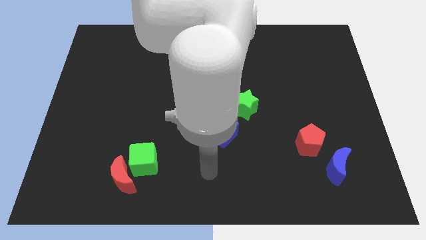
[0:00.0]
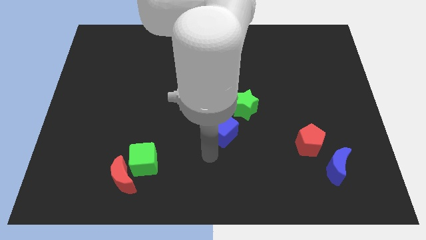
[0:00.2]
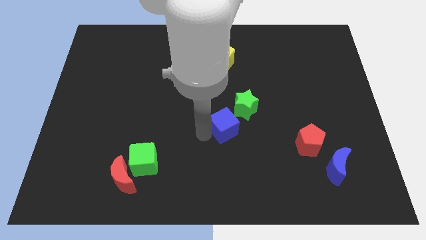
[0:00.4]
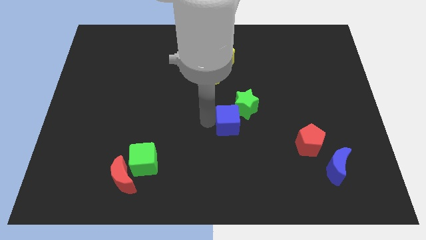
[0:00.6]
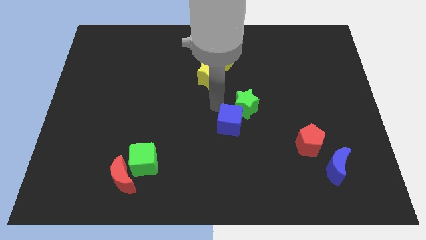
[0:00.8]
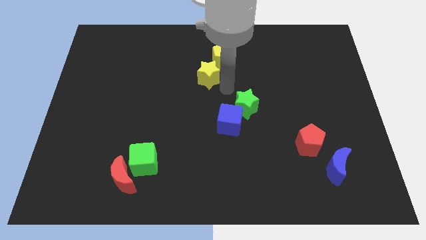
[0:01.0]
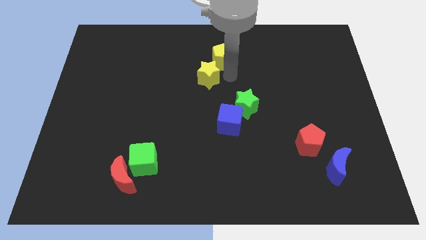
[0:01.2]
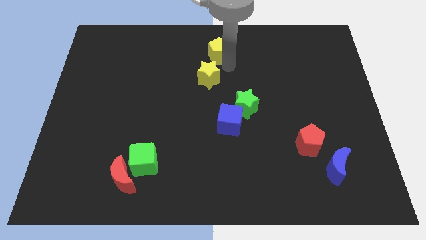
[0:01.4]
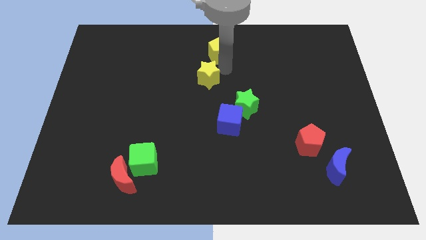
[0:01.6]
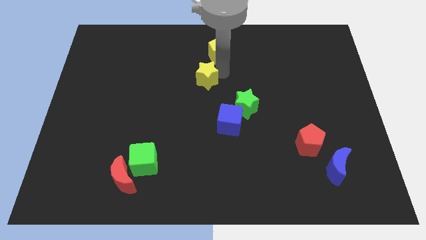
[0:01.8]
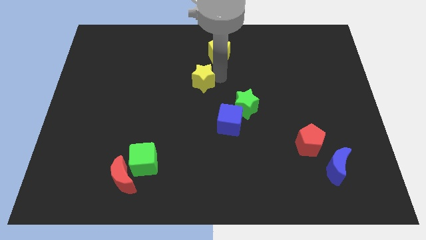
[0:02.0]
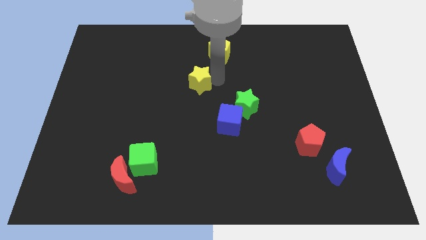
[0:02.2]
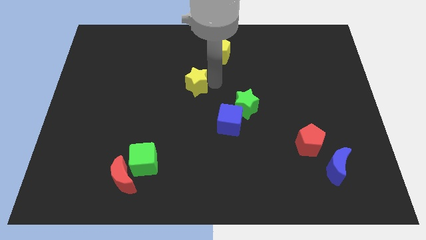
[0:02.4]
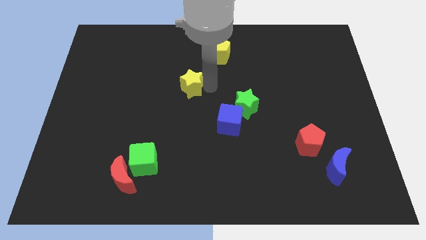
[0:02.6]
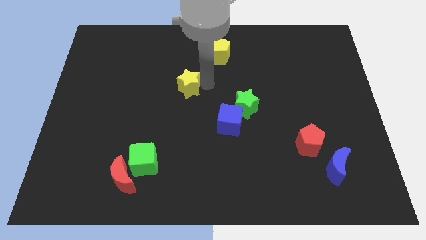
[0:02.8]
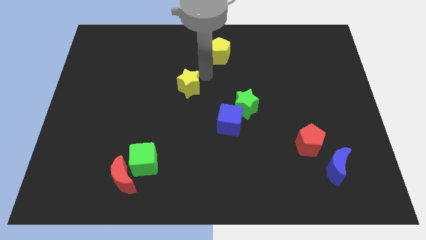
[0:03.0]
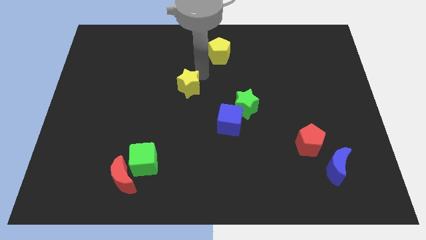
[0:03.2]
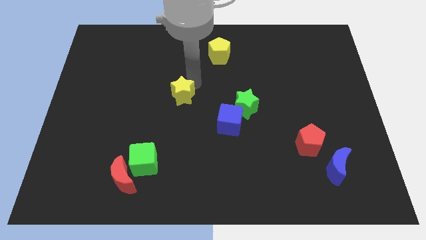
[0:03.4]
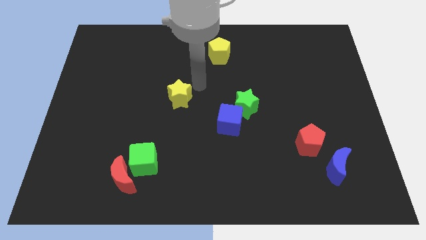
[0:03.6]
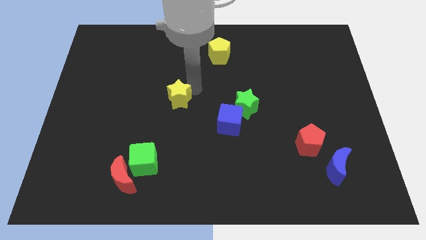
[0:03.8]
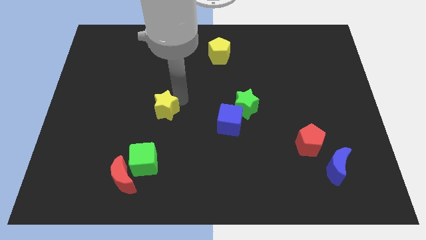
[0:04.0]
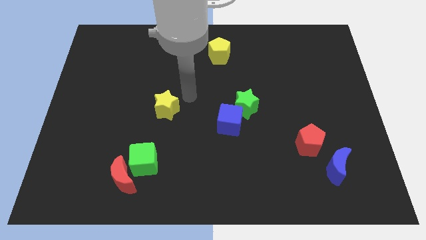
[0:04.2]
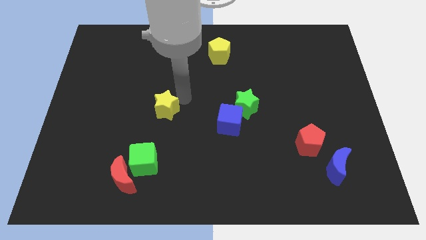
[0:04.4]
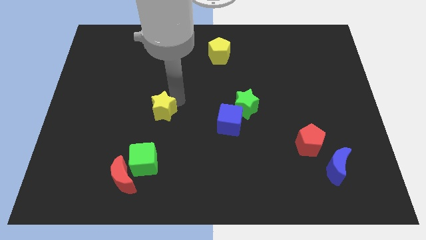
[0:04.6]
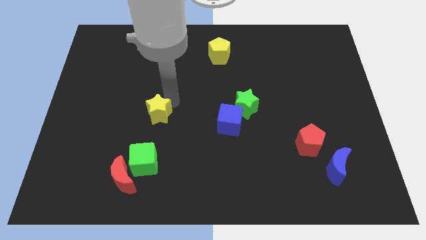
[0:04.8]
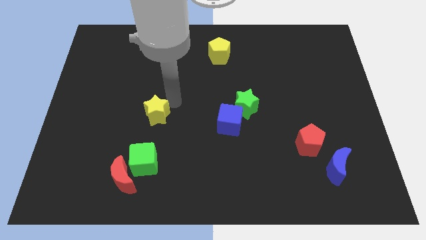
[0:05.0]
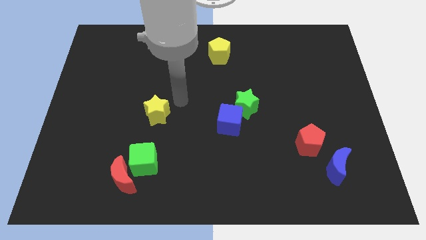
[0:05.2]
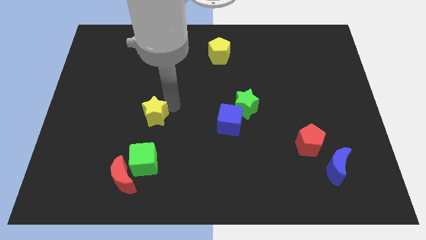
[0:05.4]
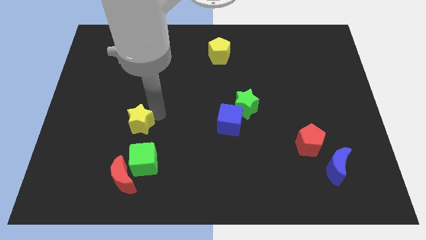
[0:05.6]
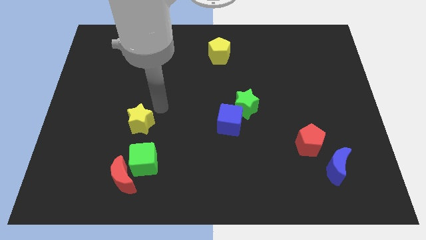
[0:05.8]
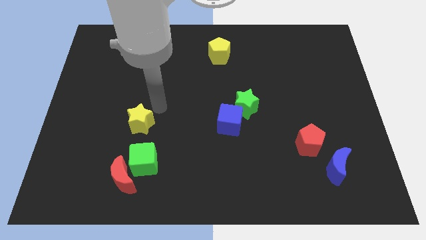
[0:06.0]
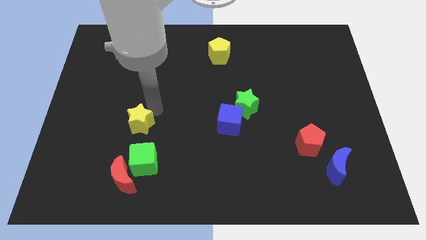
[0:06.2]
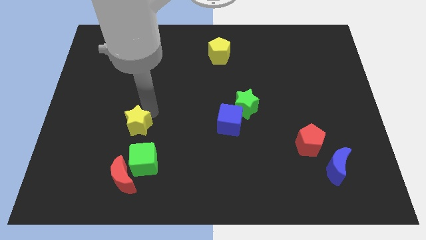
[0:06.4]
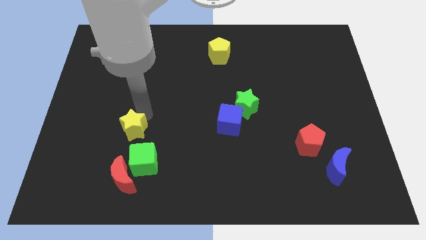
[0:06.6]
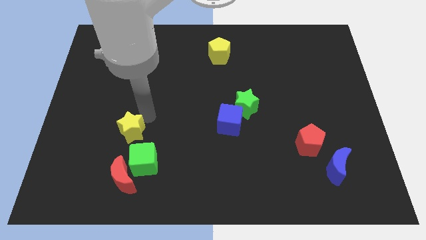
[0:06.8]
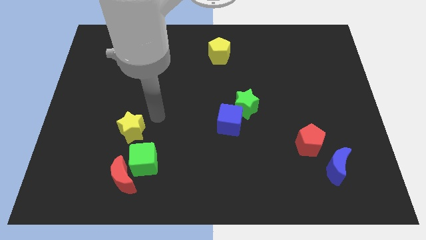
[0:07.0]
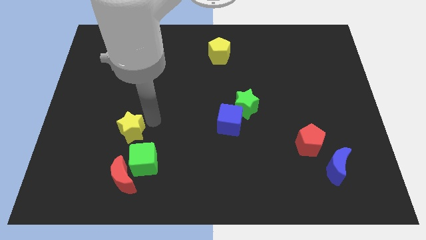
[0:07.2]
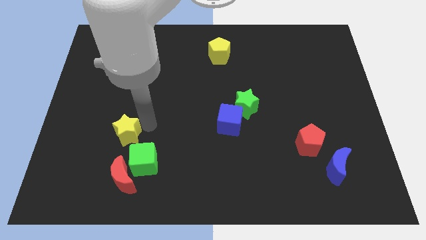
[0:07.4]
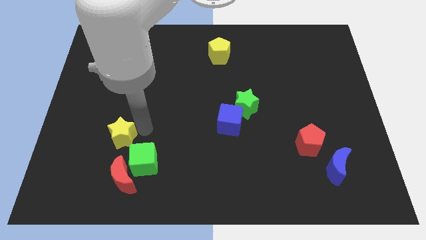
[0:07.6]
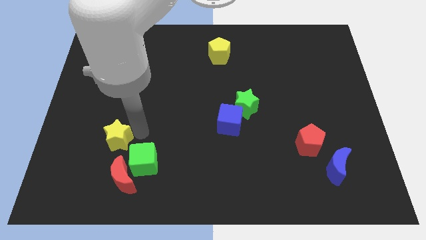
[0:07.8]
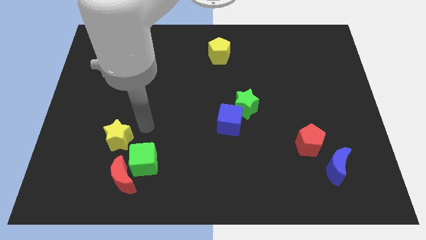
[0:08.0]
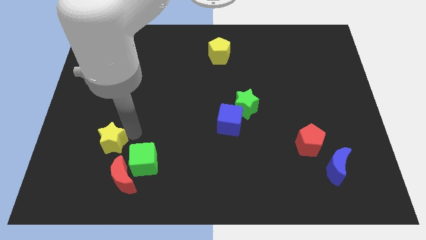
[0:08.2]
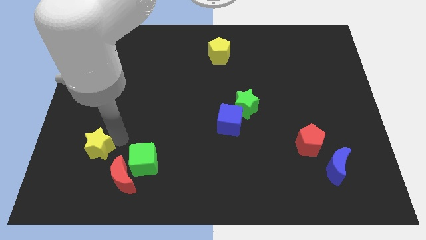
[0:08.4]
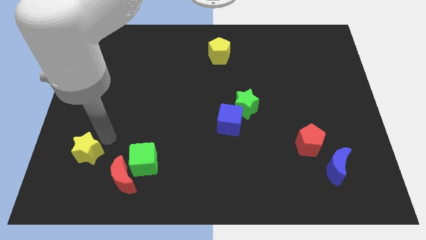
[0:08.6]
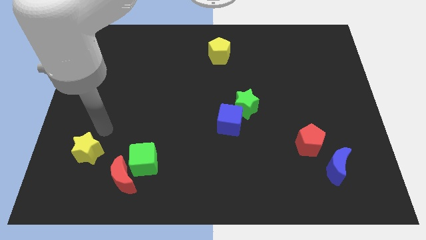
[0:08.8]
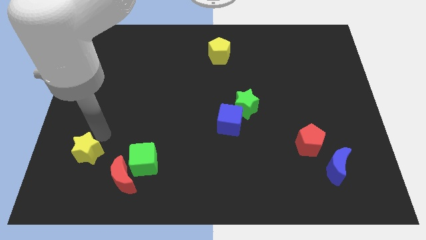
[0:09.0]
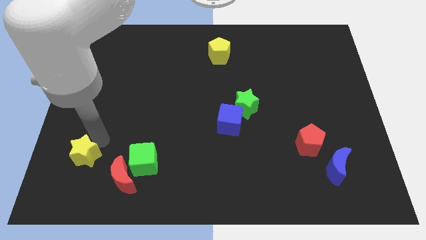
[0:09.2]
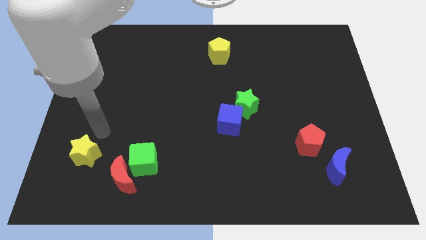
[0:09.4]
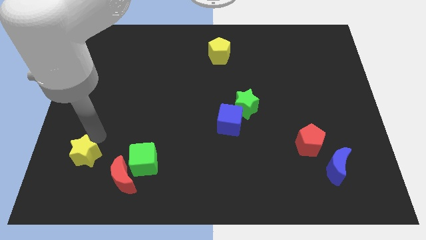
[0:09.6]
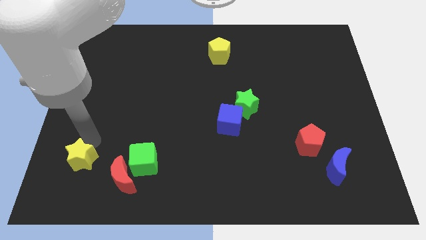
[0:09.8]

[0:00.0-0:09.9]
put the yellow star to the left side of the red moon

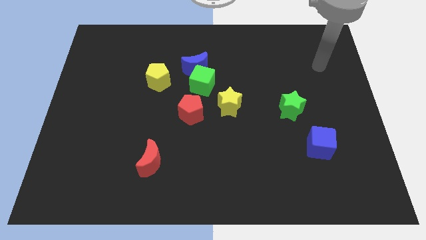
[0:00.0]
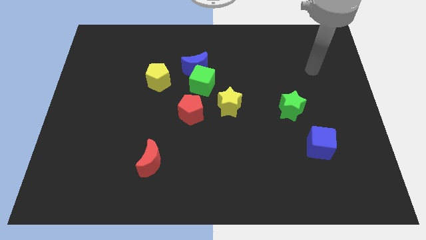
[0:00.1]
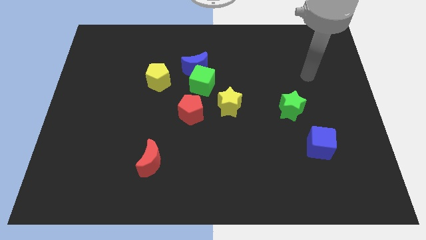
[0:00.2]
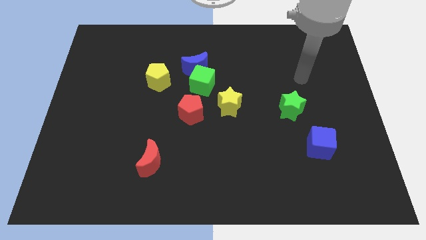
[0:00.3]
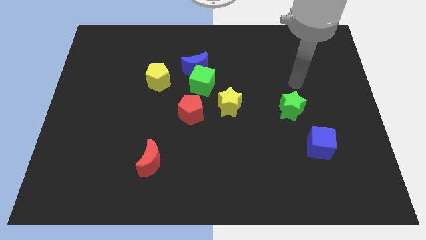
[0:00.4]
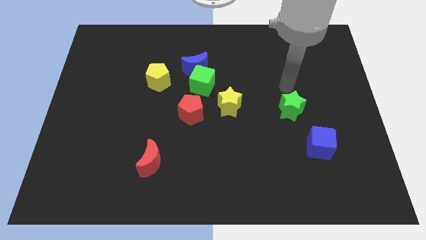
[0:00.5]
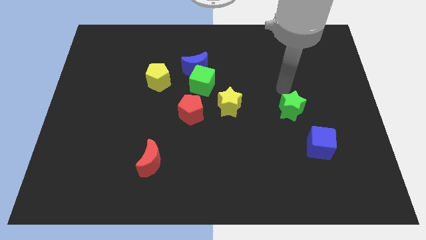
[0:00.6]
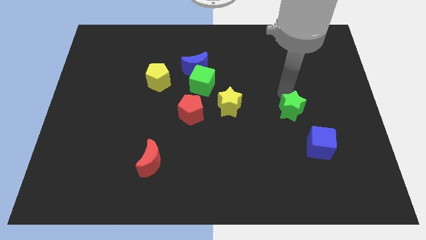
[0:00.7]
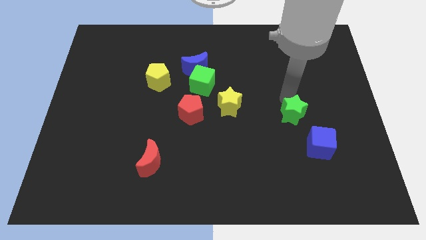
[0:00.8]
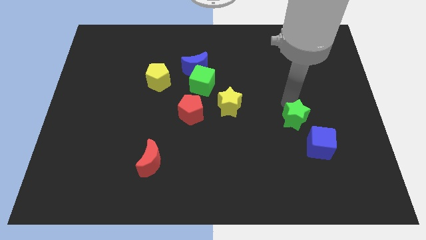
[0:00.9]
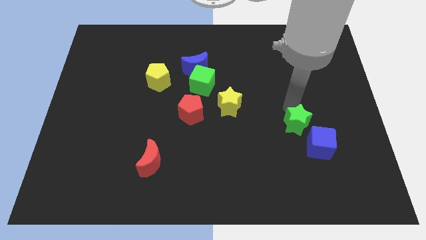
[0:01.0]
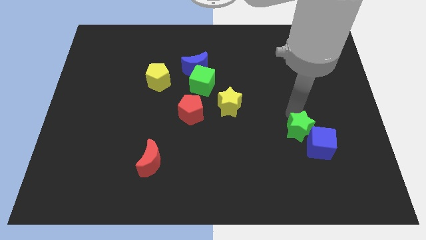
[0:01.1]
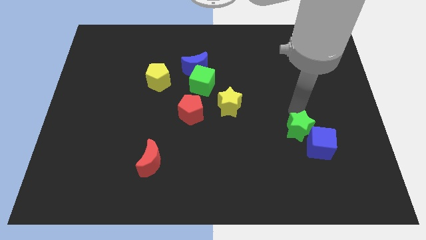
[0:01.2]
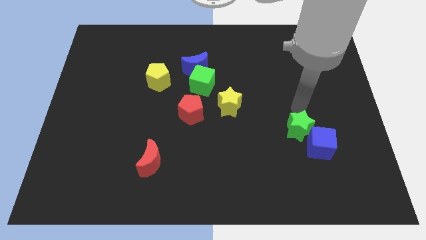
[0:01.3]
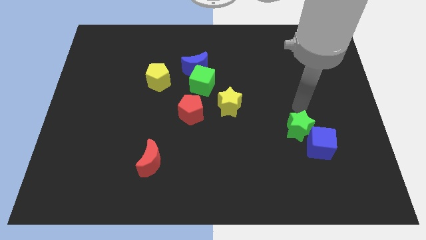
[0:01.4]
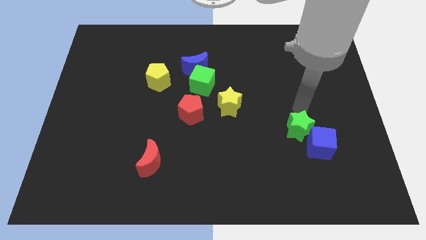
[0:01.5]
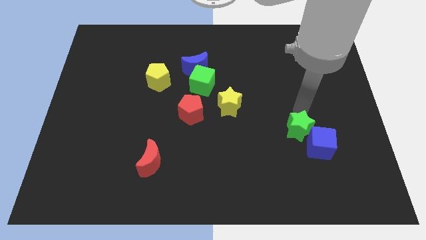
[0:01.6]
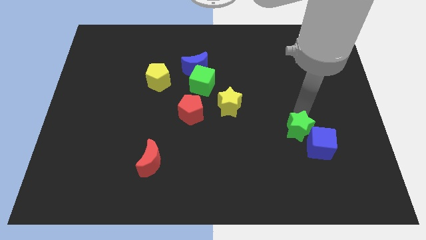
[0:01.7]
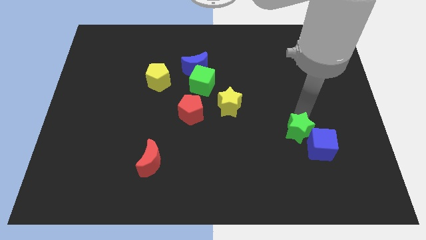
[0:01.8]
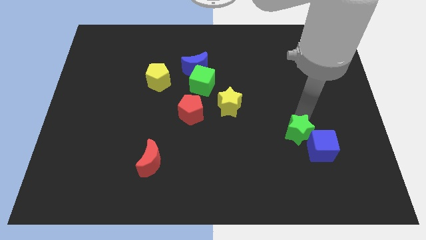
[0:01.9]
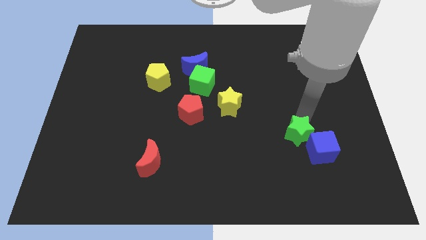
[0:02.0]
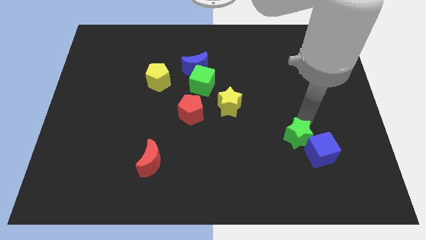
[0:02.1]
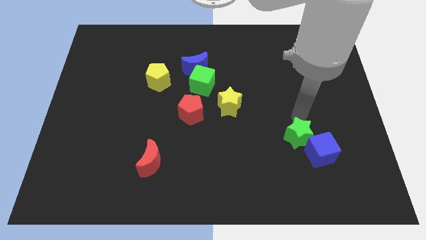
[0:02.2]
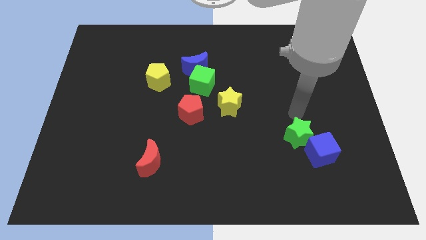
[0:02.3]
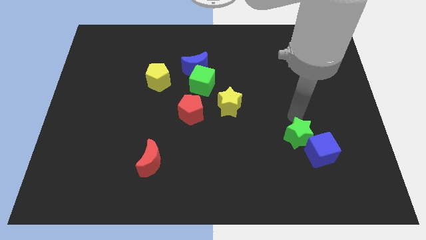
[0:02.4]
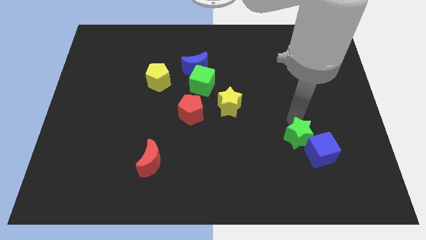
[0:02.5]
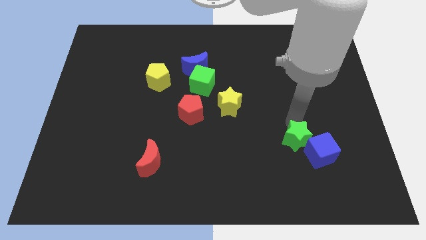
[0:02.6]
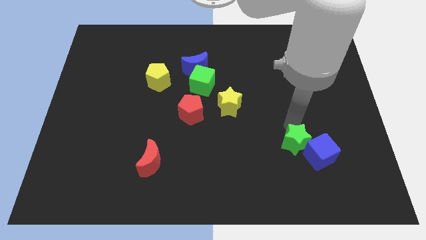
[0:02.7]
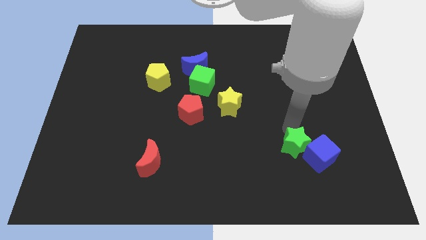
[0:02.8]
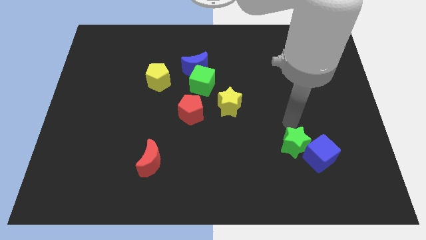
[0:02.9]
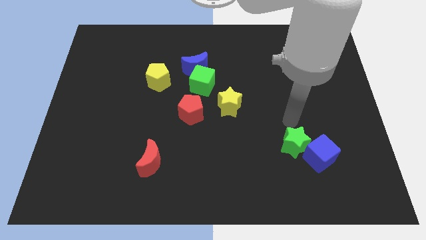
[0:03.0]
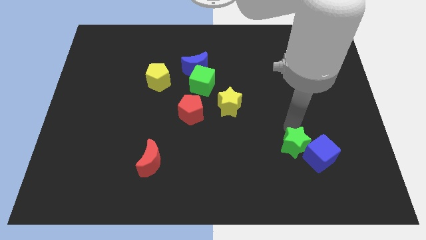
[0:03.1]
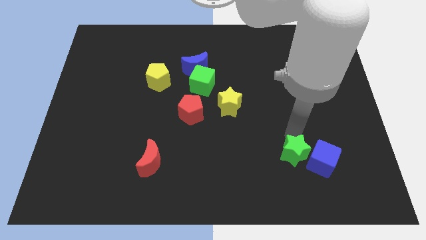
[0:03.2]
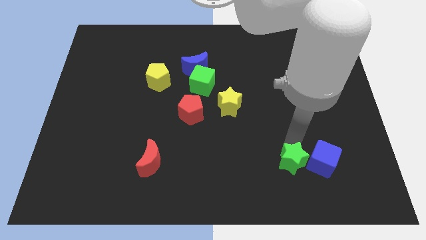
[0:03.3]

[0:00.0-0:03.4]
push the green star to the bottom left side of the blue cube
